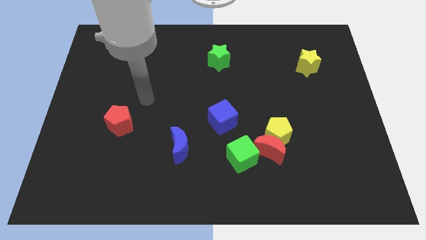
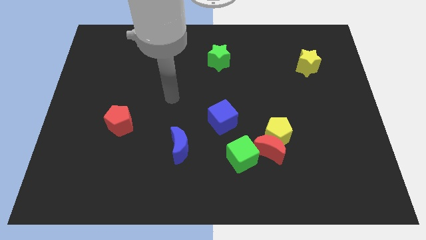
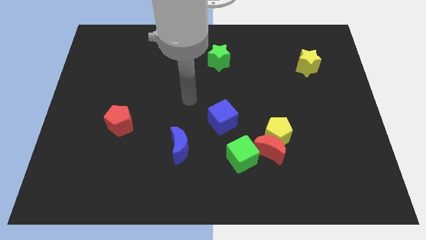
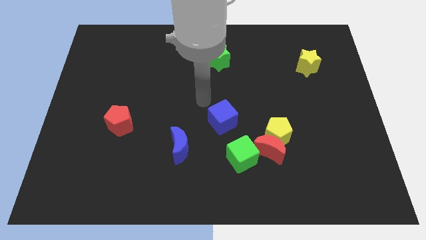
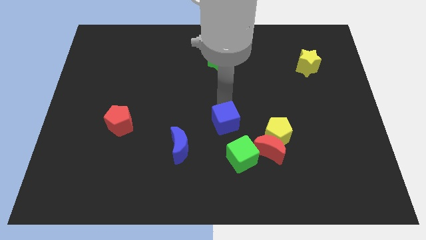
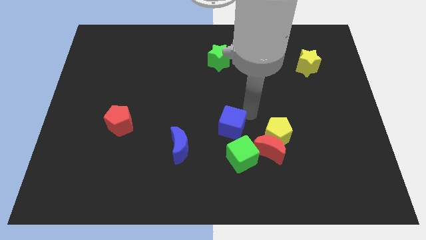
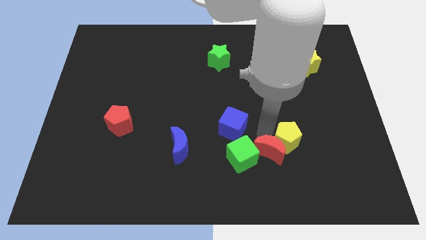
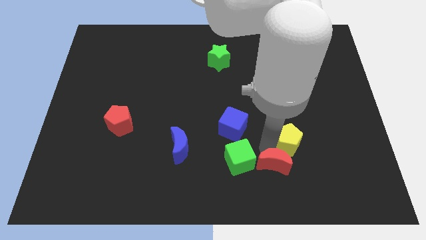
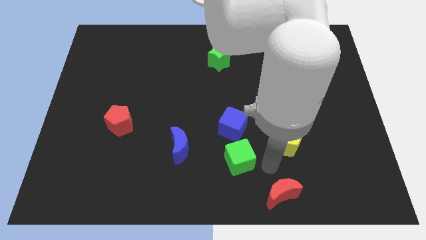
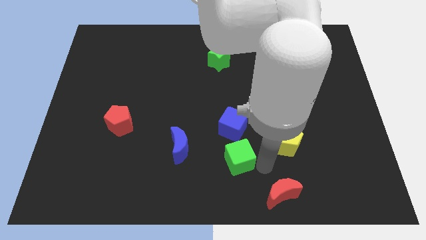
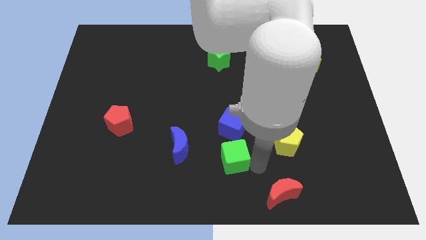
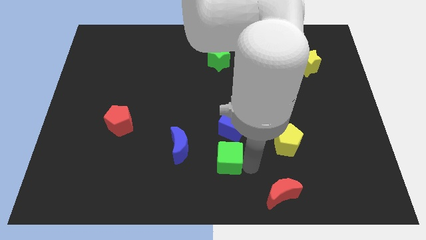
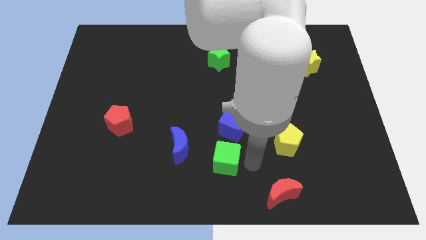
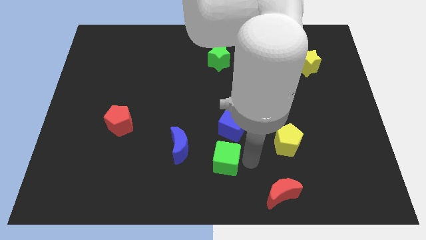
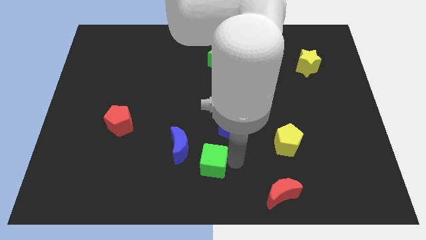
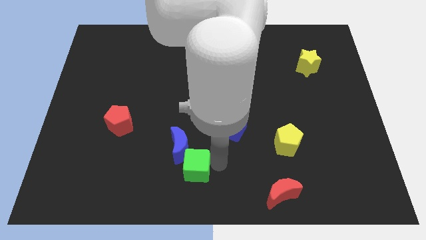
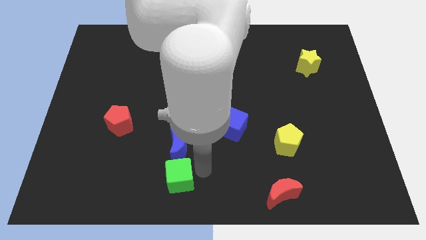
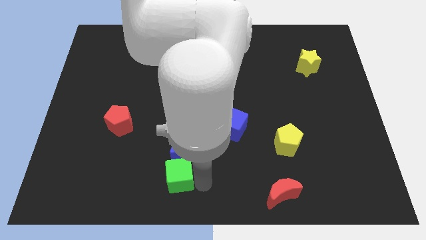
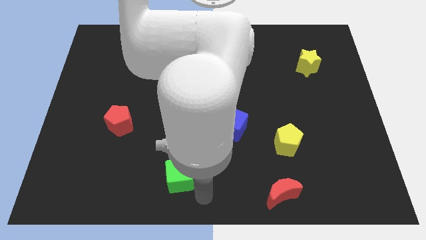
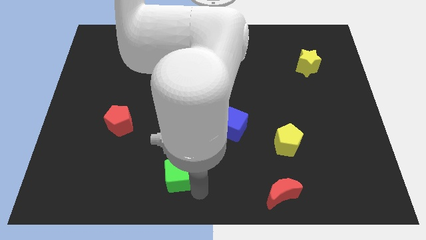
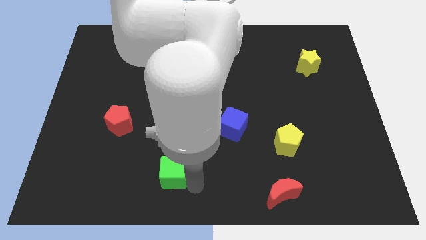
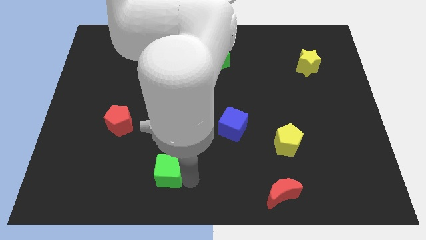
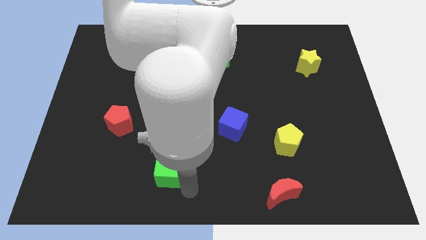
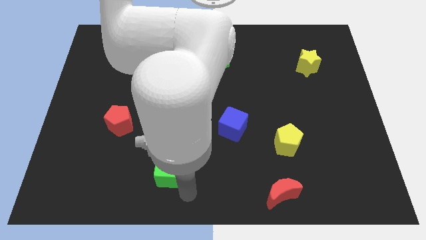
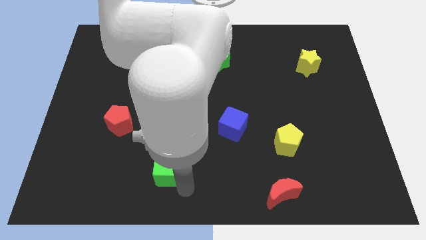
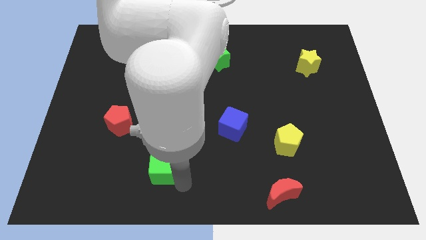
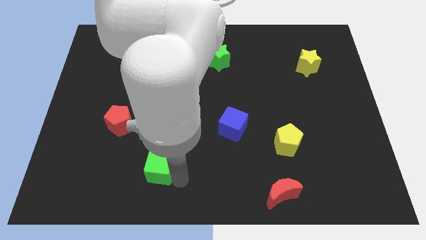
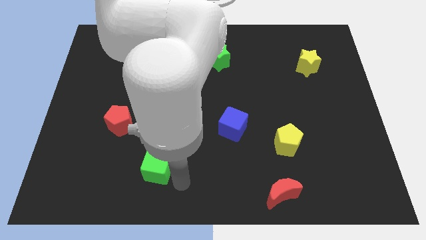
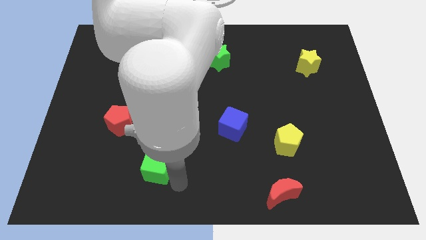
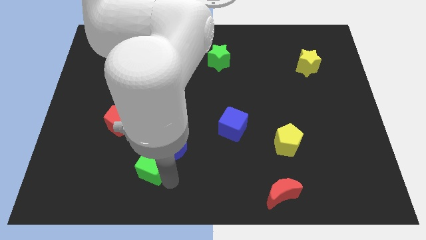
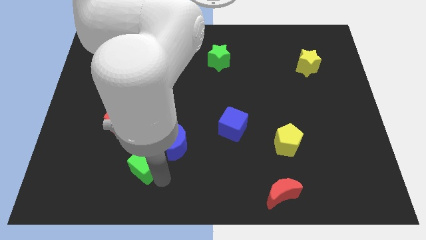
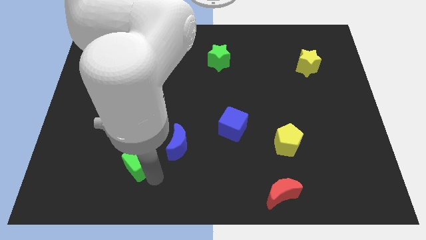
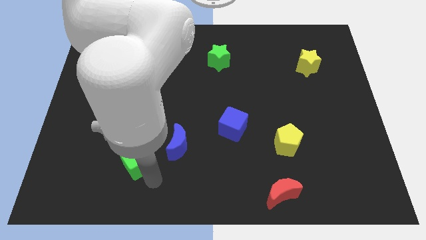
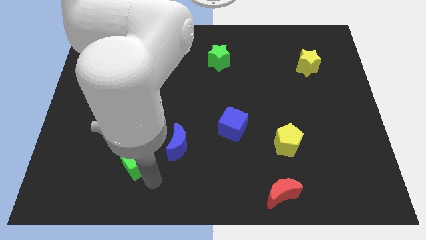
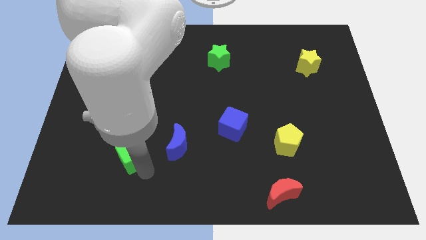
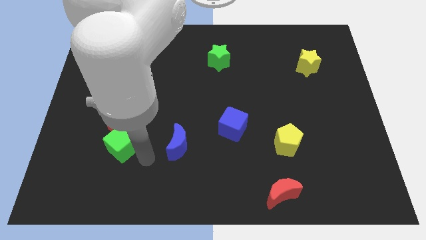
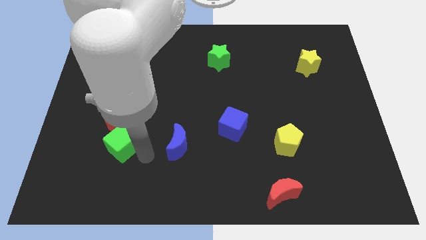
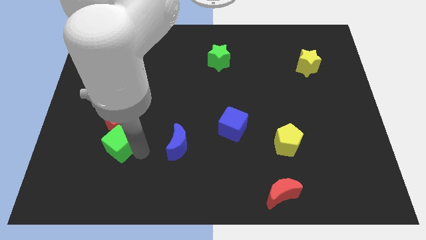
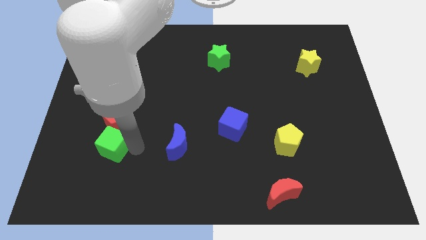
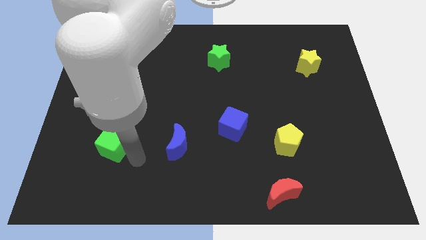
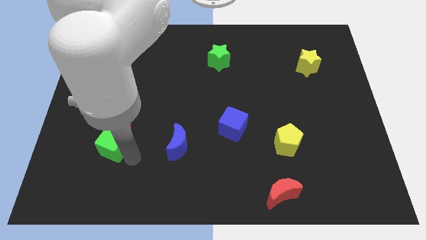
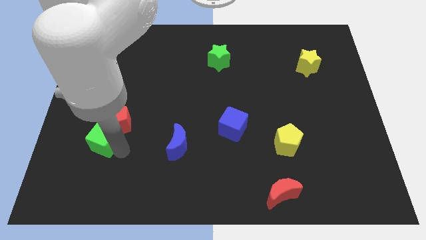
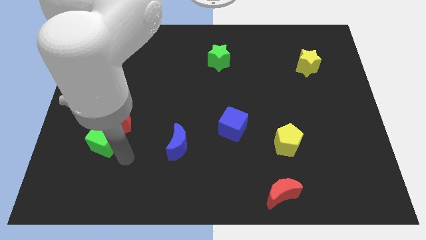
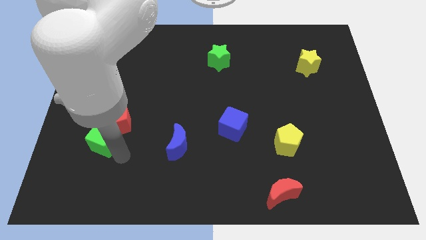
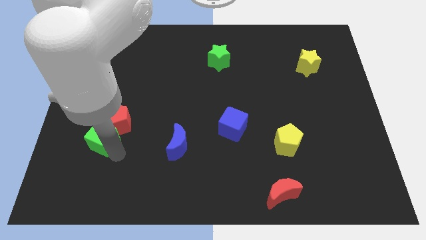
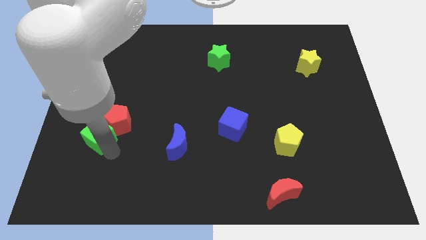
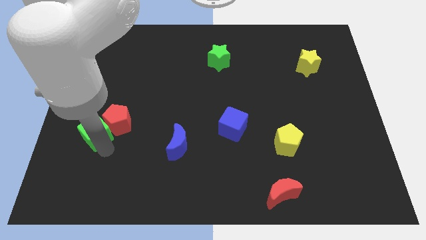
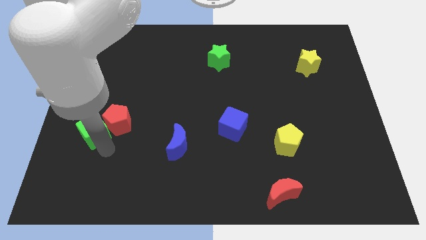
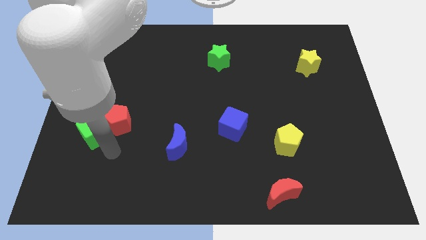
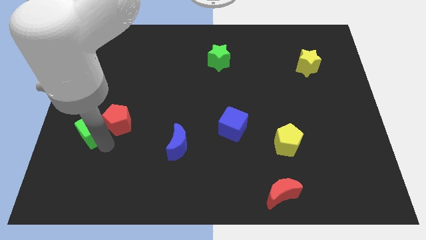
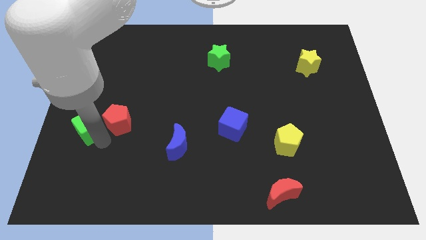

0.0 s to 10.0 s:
slide the green cube to the center left

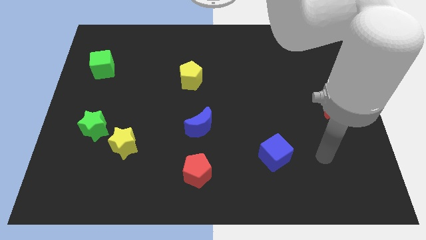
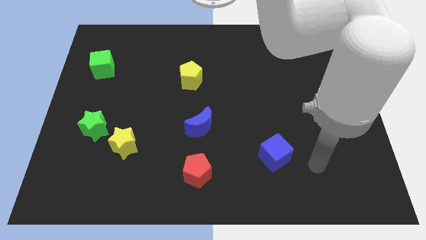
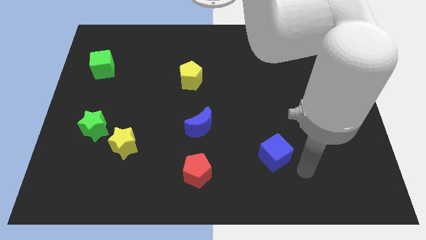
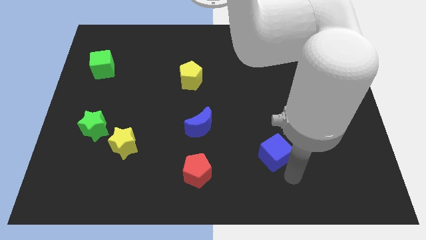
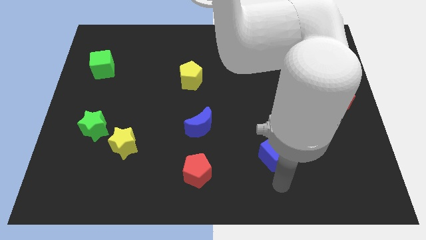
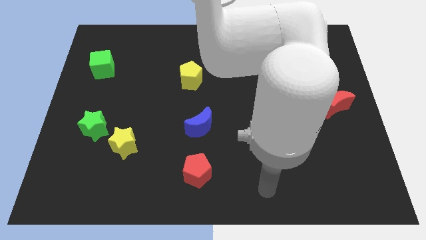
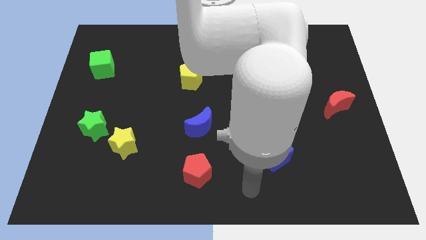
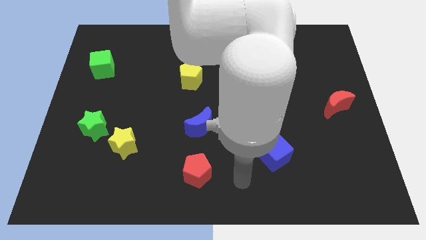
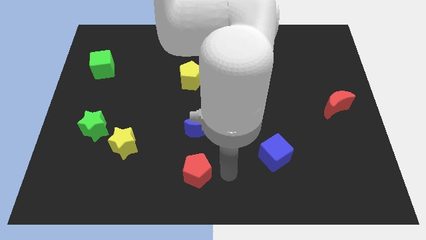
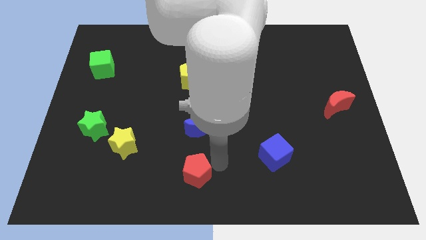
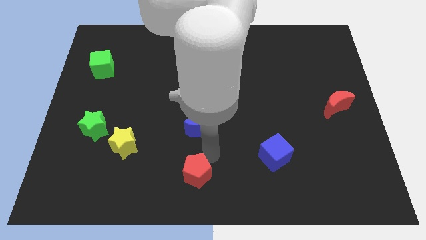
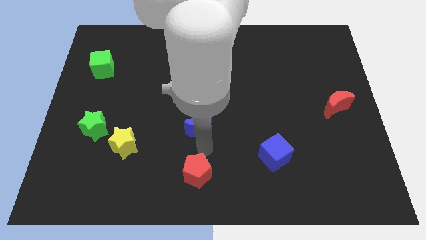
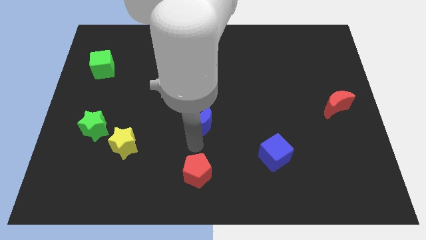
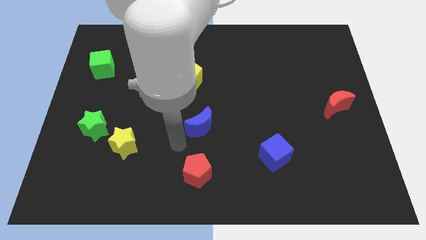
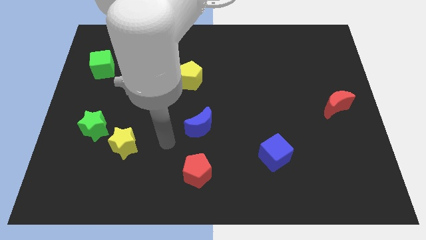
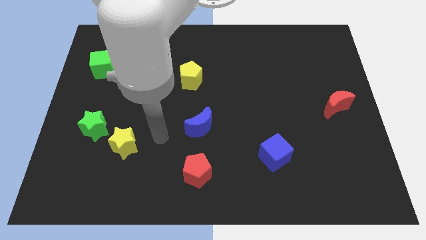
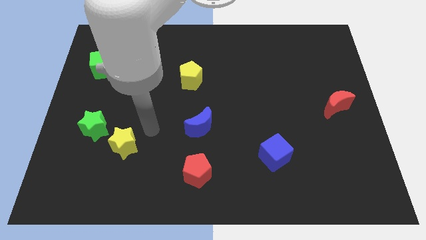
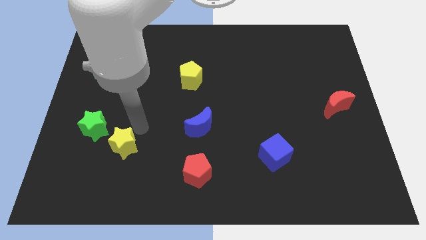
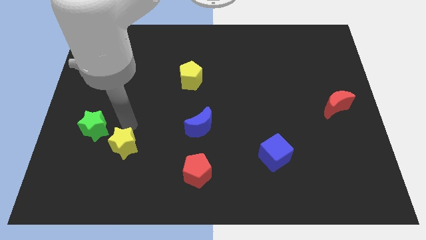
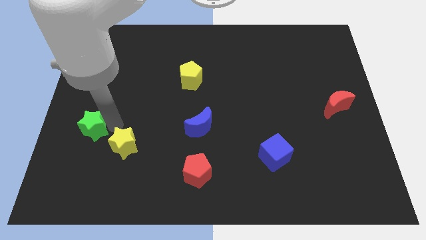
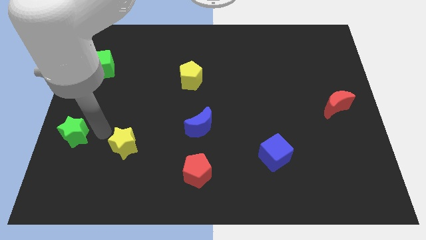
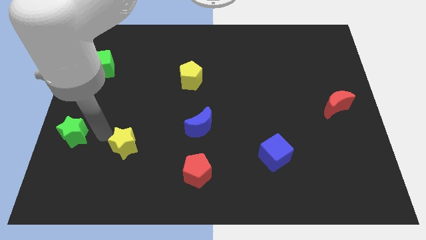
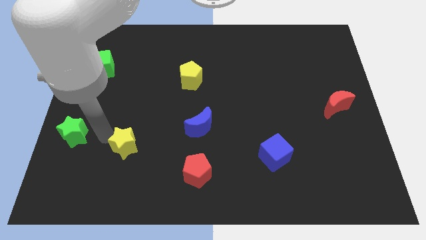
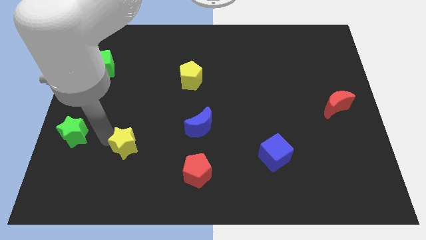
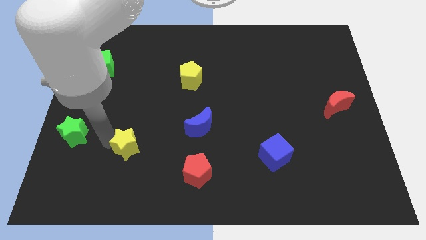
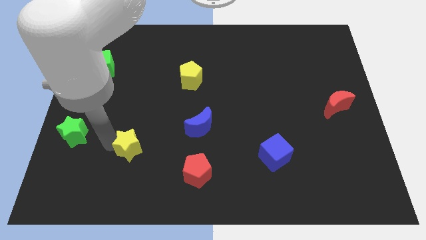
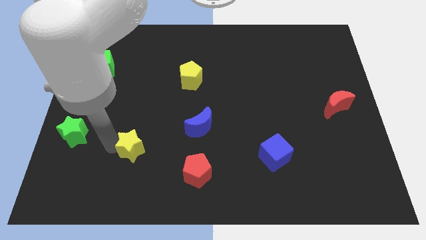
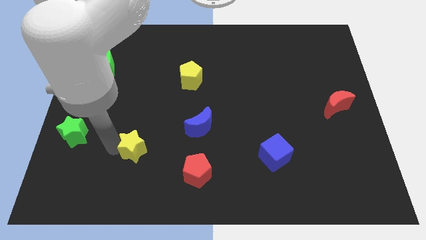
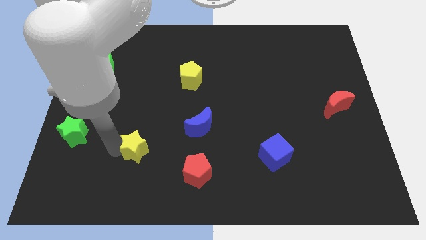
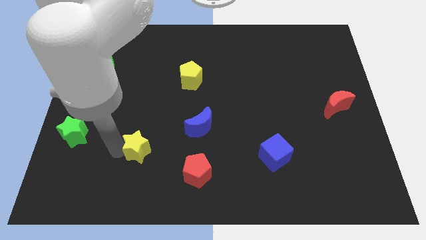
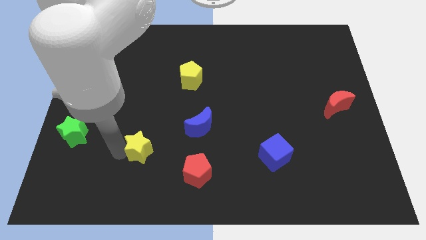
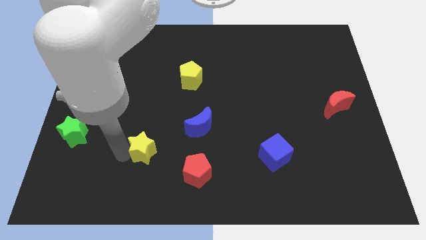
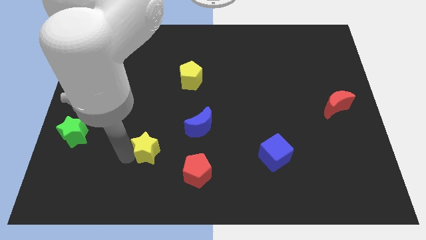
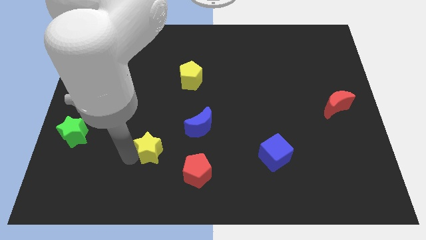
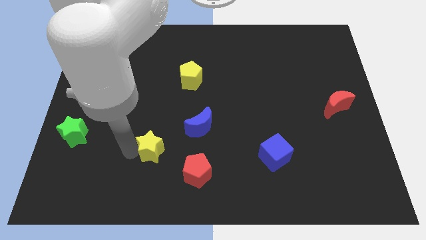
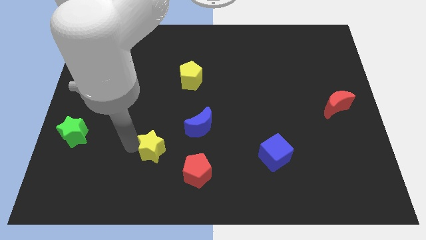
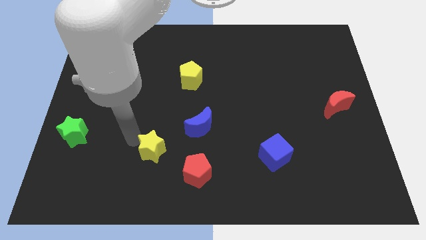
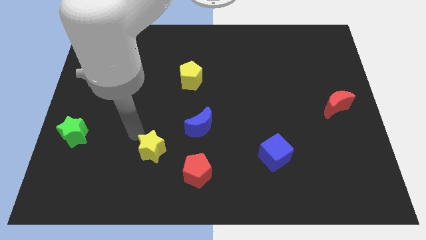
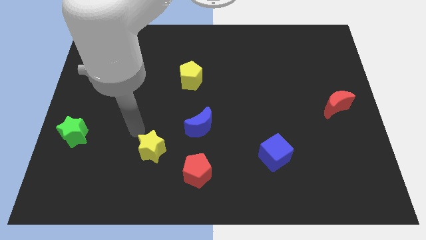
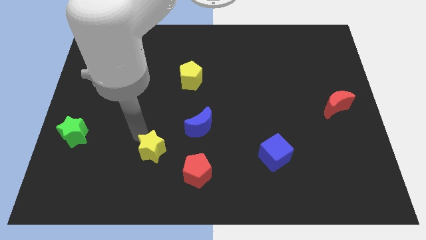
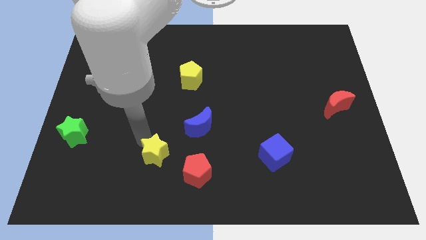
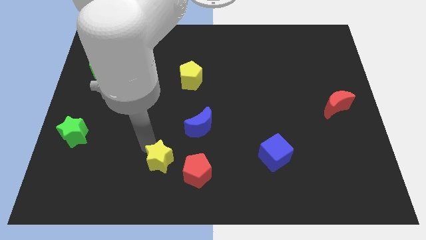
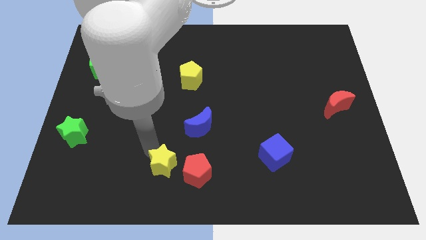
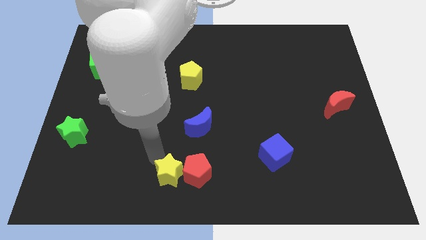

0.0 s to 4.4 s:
push the yellow star to the bottom side
